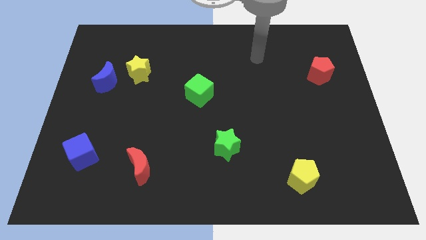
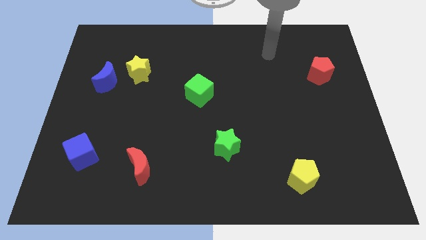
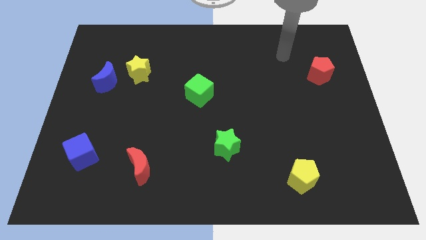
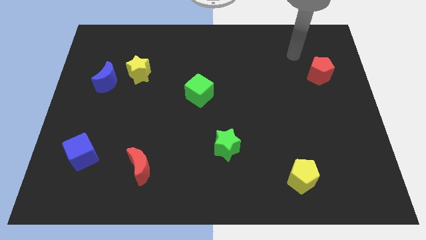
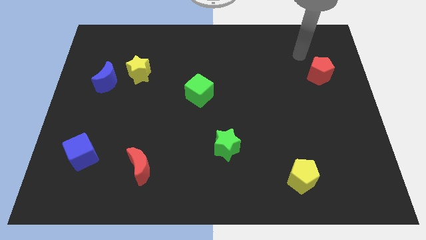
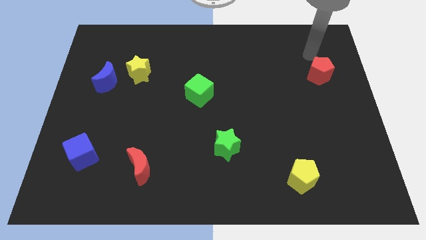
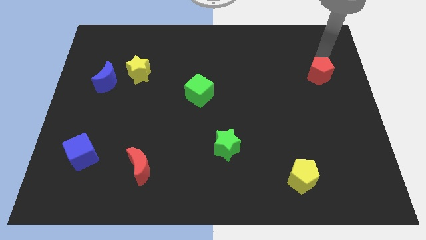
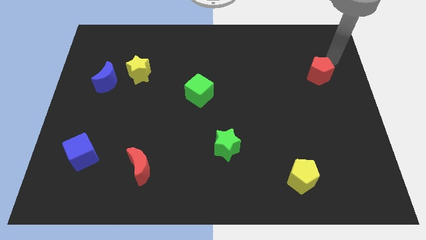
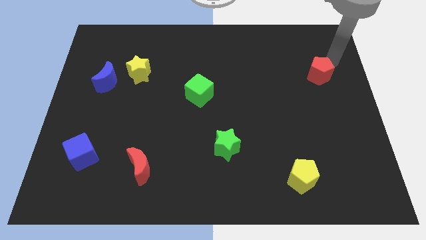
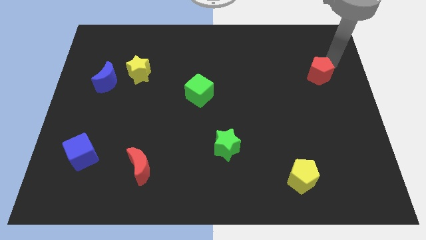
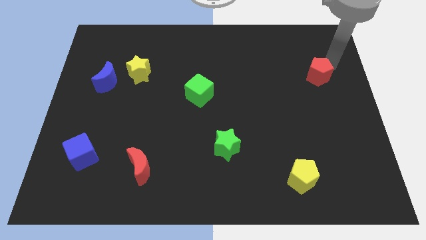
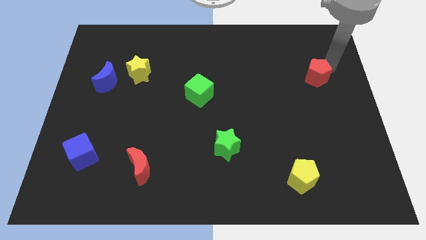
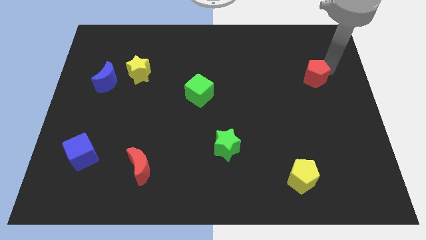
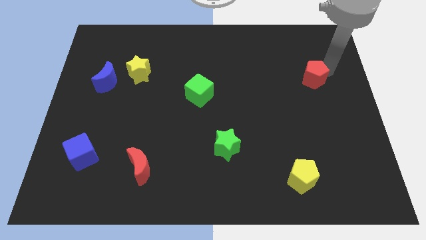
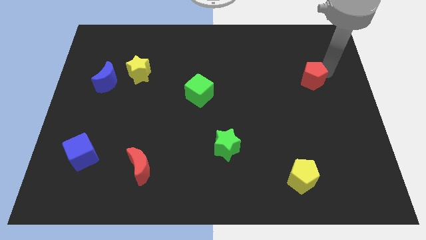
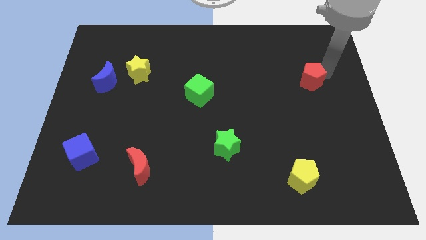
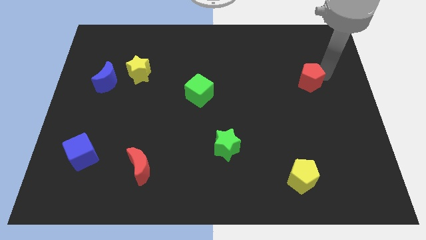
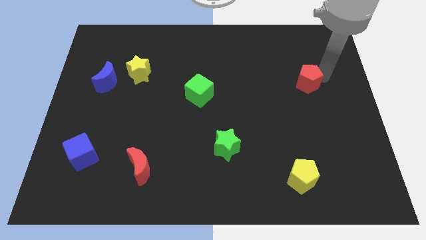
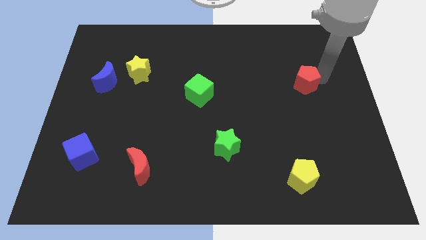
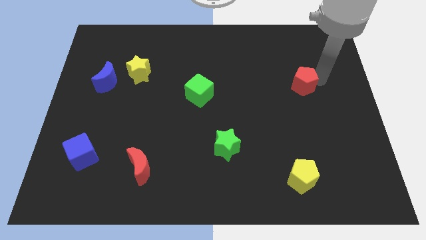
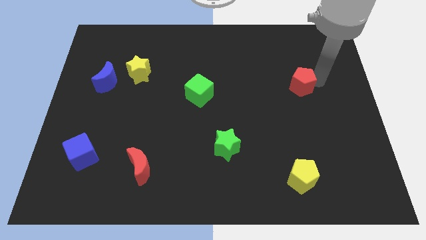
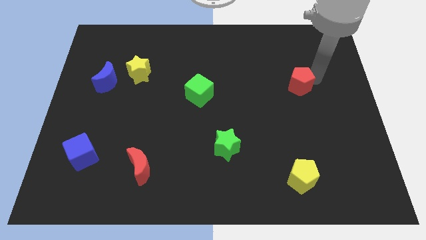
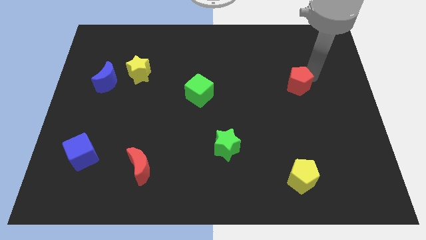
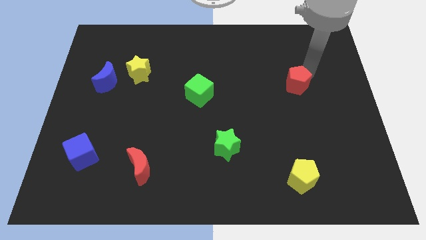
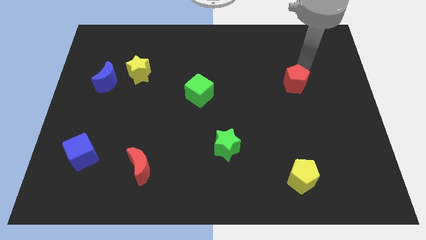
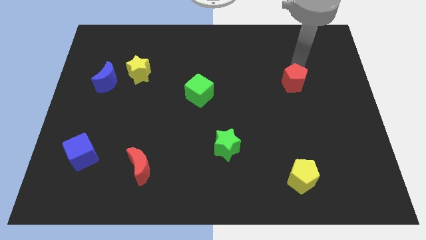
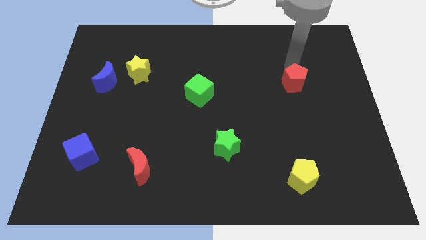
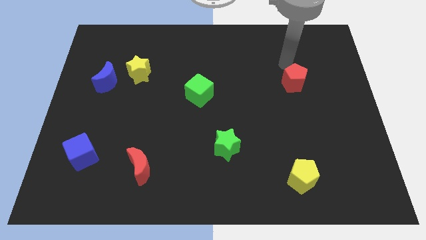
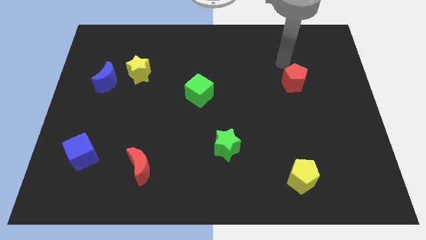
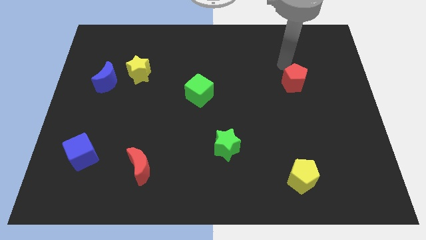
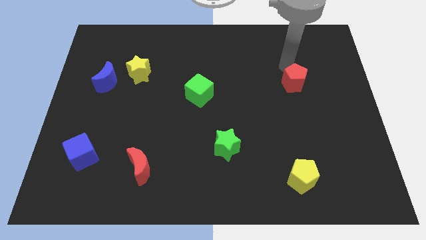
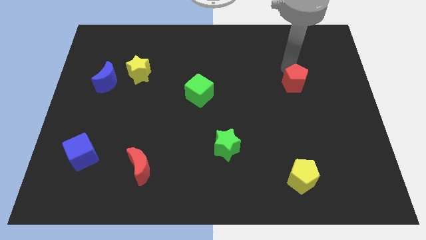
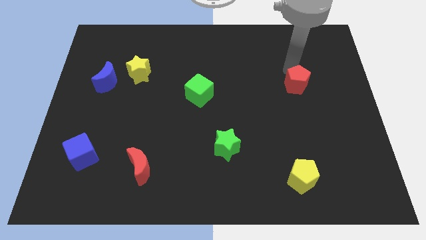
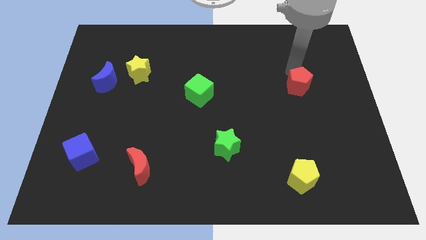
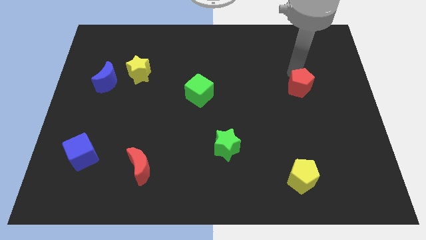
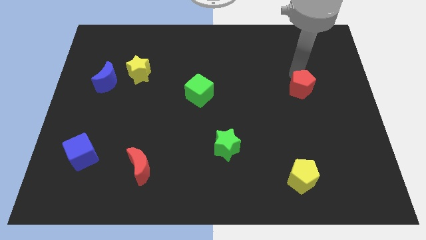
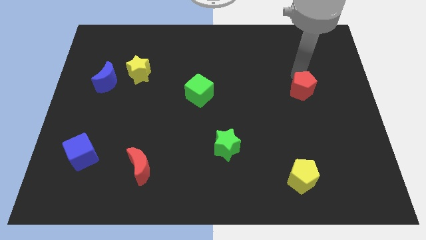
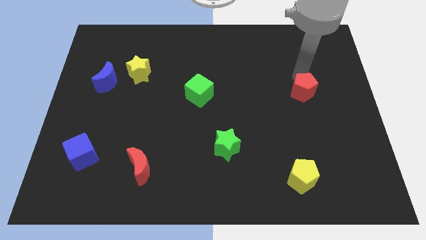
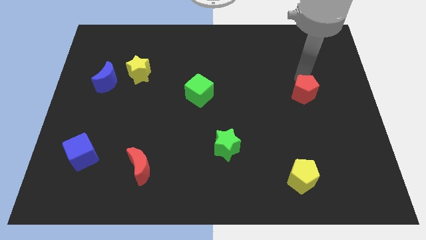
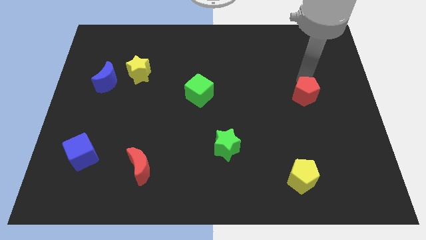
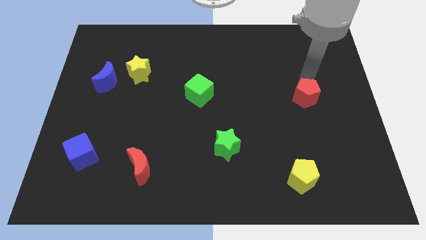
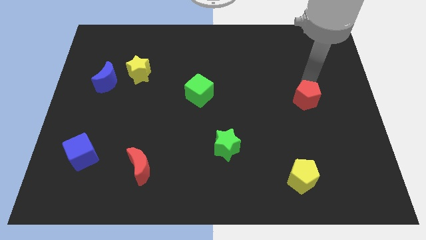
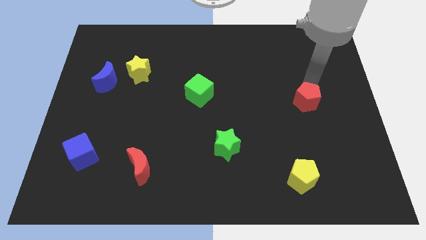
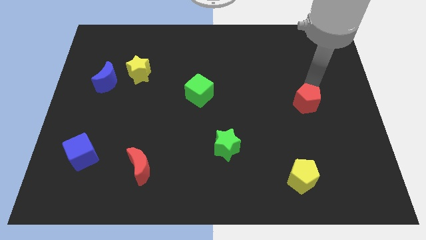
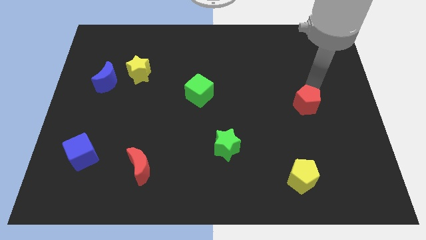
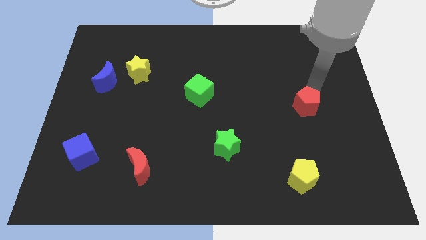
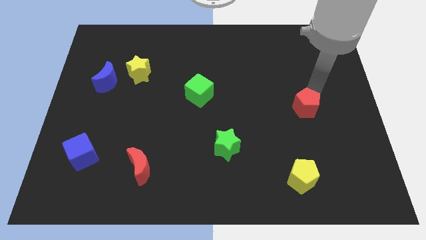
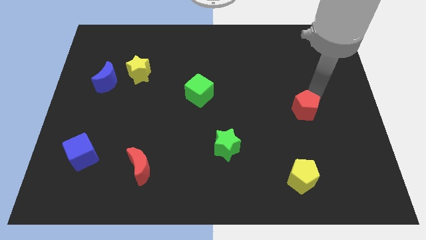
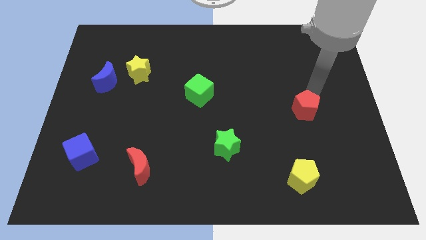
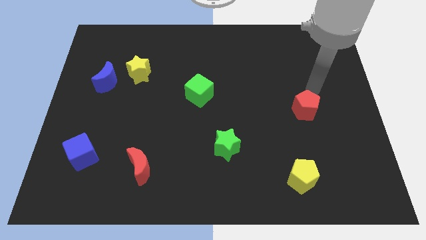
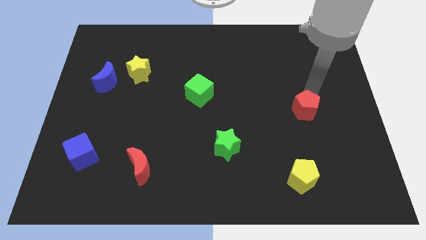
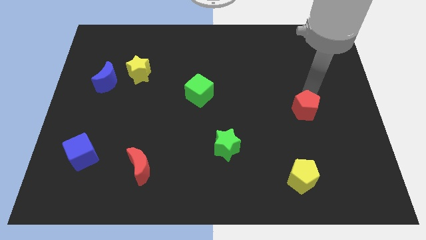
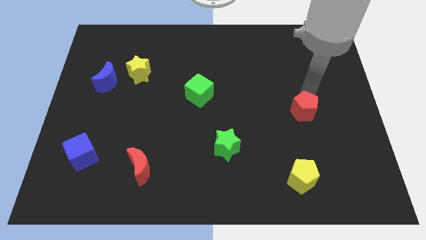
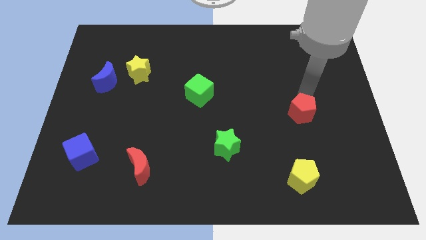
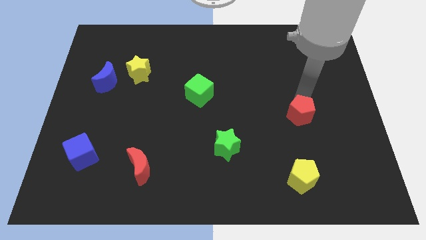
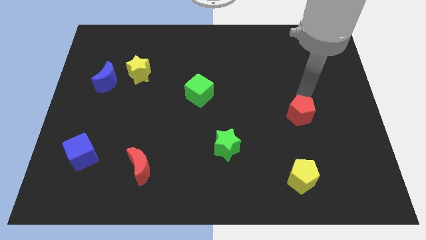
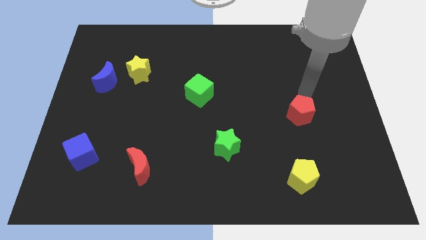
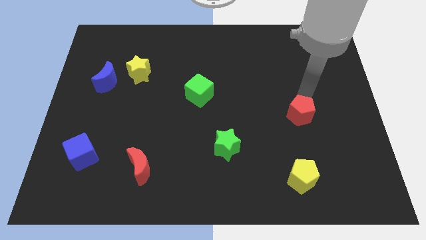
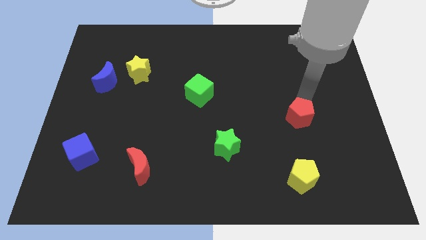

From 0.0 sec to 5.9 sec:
slide the red pentagon above the yellow pentagon
